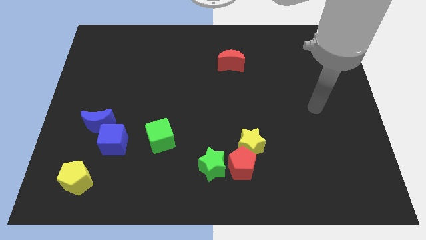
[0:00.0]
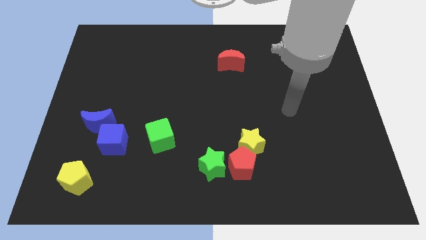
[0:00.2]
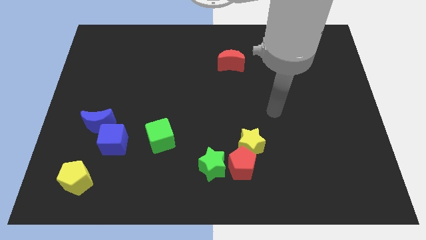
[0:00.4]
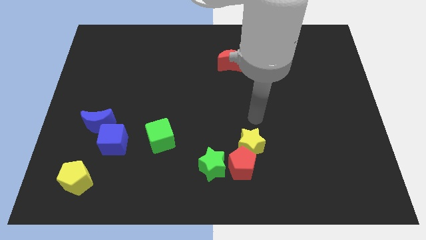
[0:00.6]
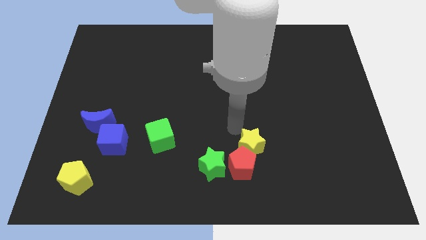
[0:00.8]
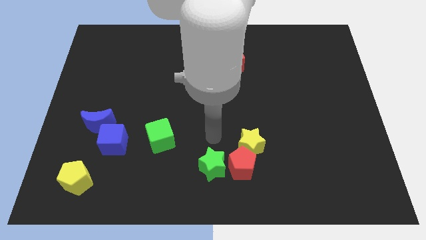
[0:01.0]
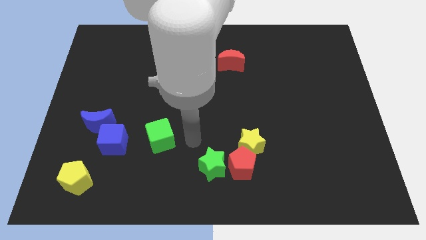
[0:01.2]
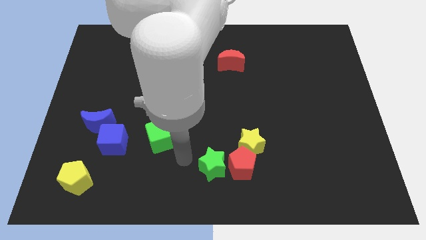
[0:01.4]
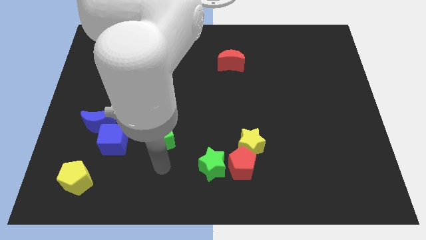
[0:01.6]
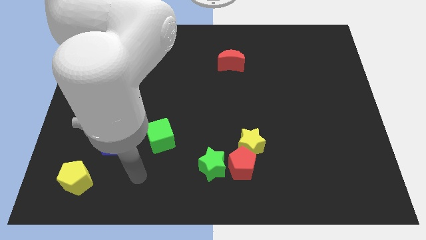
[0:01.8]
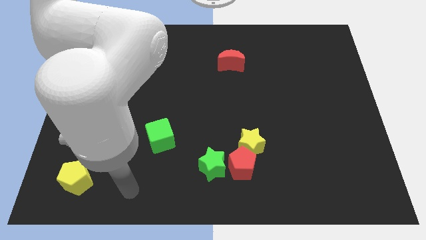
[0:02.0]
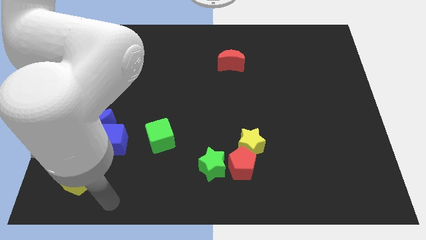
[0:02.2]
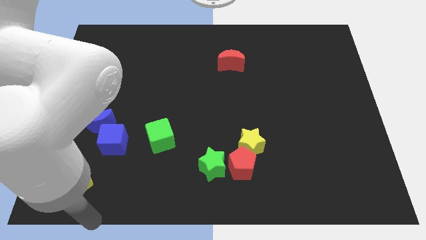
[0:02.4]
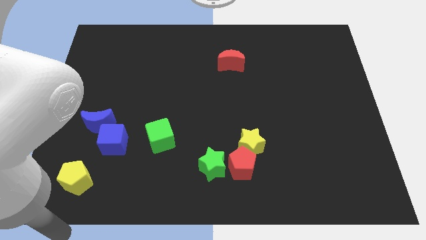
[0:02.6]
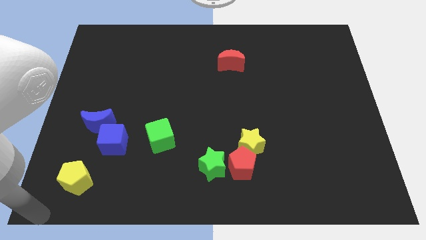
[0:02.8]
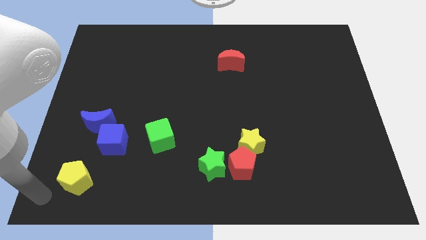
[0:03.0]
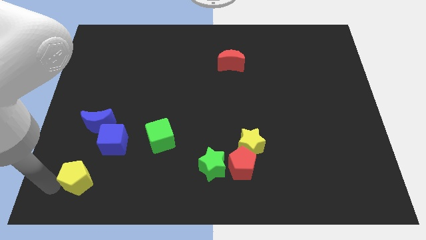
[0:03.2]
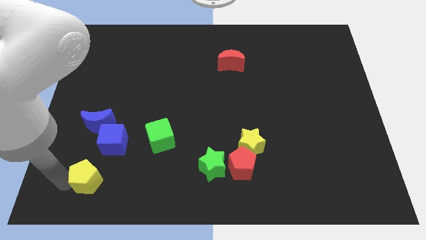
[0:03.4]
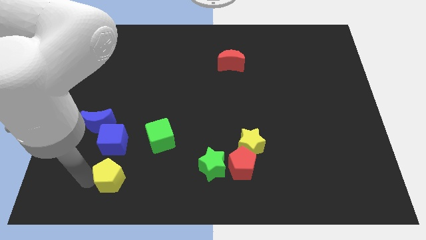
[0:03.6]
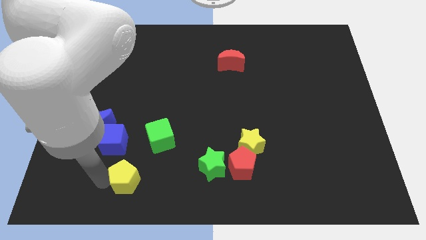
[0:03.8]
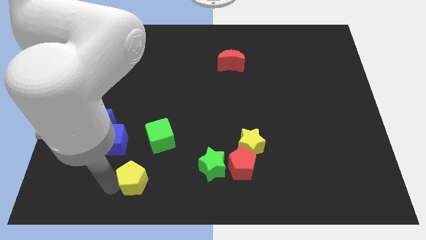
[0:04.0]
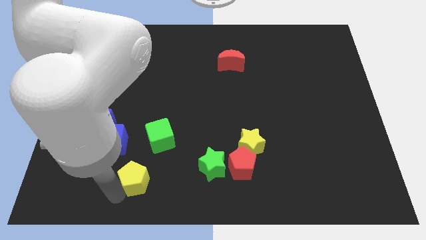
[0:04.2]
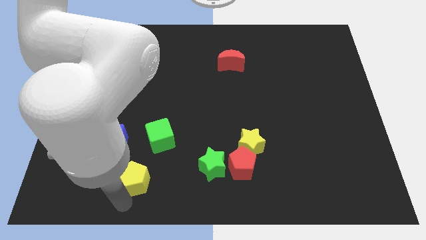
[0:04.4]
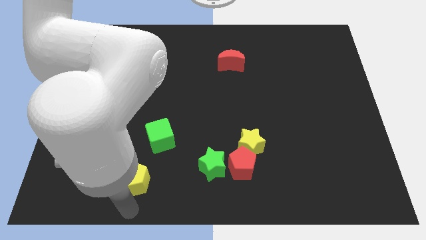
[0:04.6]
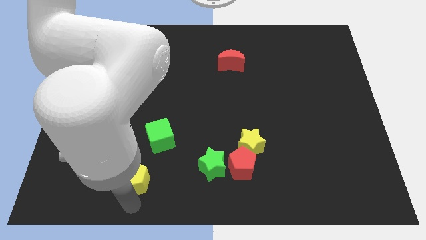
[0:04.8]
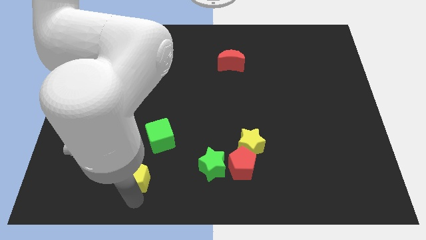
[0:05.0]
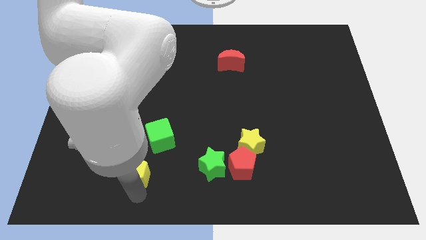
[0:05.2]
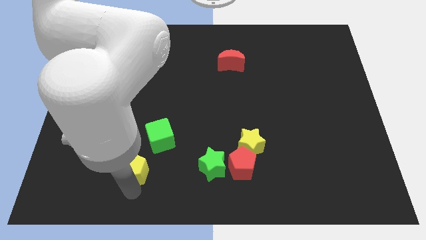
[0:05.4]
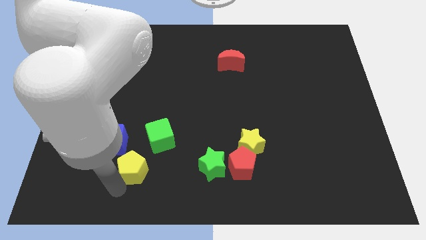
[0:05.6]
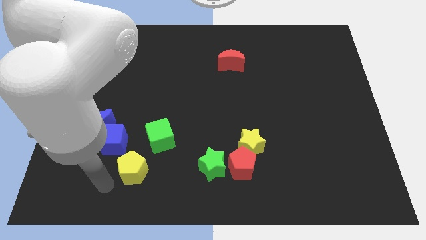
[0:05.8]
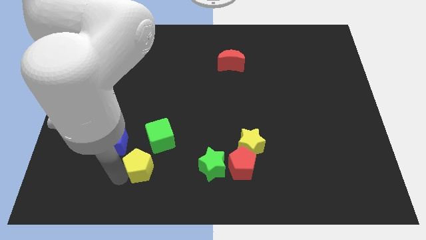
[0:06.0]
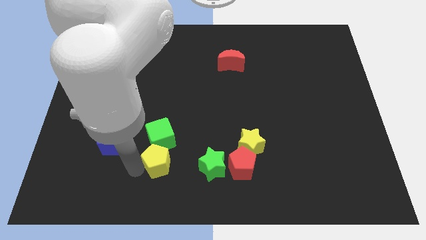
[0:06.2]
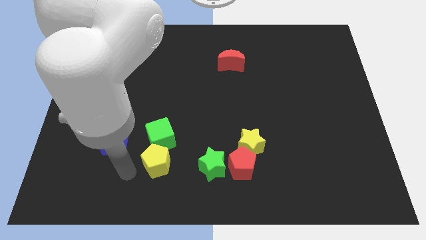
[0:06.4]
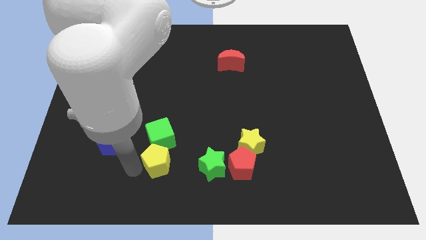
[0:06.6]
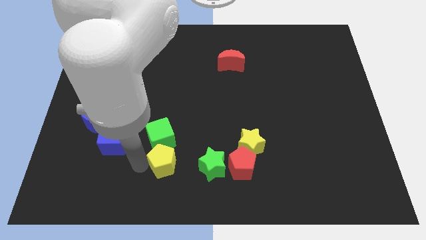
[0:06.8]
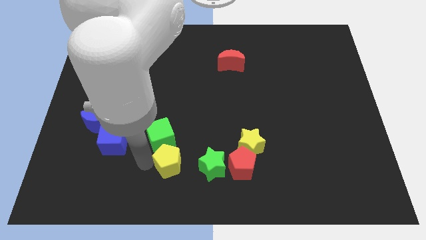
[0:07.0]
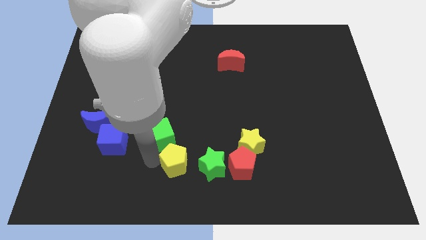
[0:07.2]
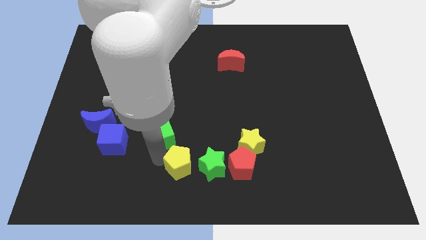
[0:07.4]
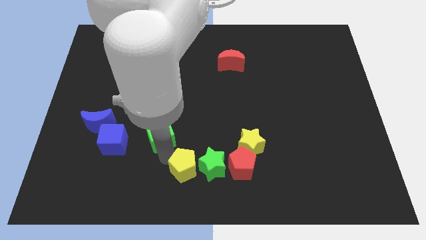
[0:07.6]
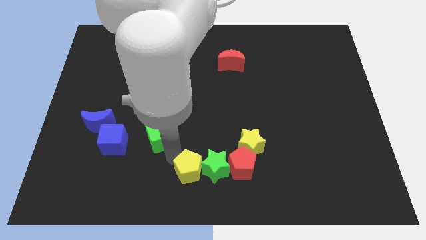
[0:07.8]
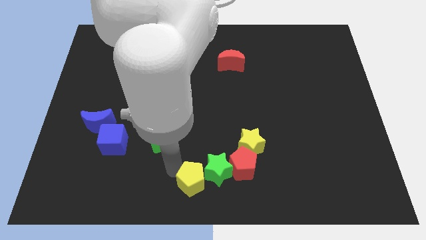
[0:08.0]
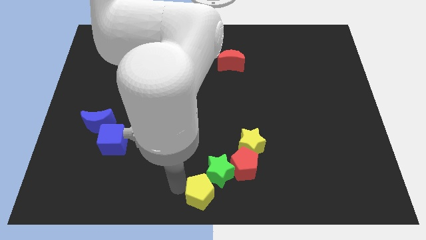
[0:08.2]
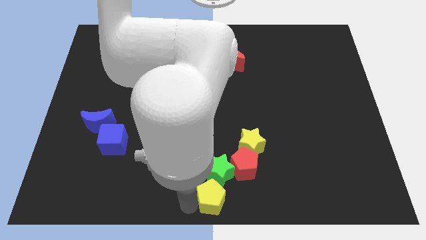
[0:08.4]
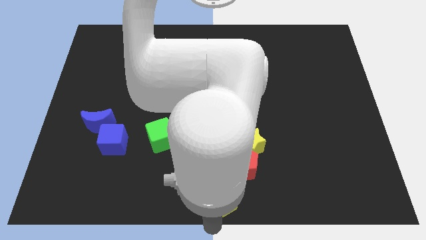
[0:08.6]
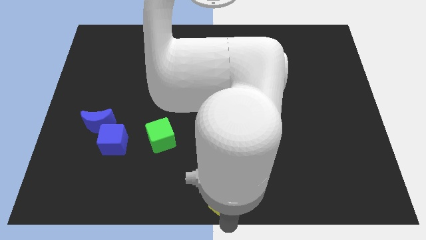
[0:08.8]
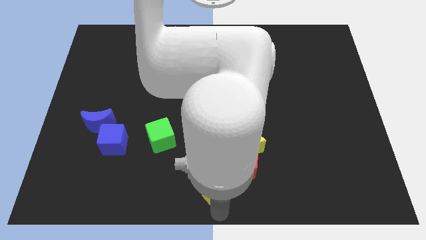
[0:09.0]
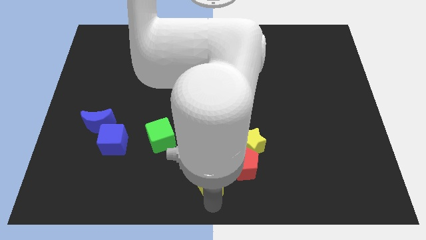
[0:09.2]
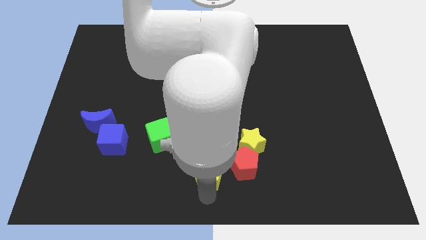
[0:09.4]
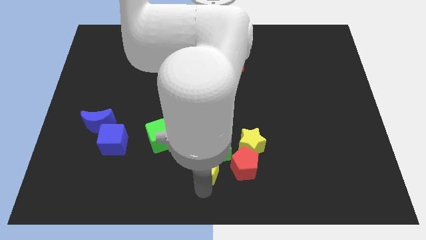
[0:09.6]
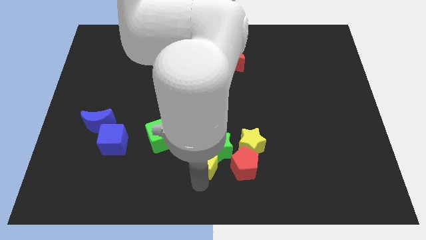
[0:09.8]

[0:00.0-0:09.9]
slide the yellow pentagon left of the yellow star

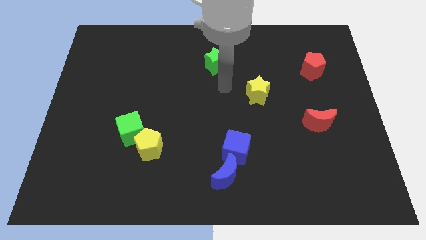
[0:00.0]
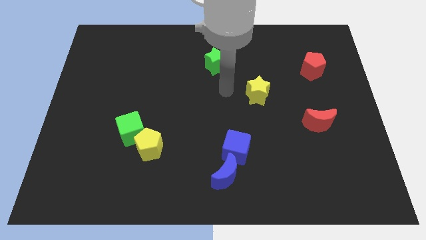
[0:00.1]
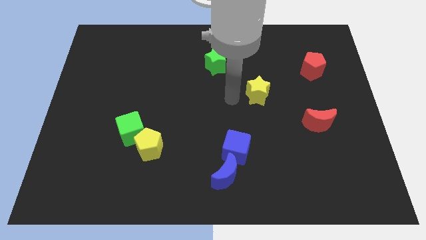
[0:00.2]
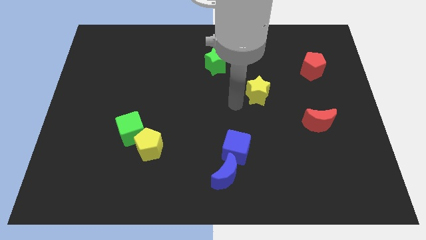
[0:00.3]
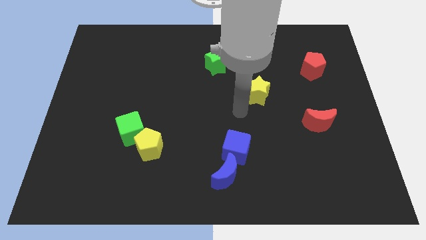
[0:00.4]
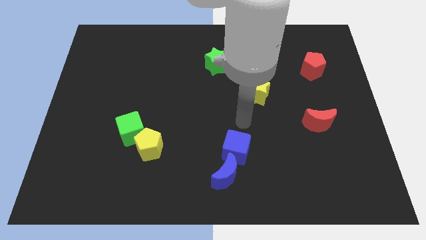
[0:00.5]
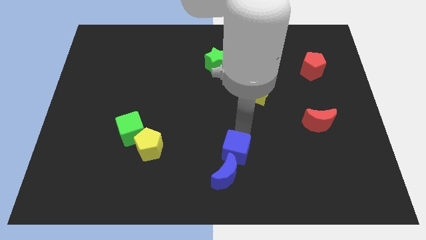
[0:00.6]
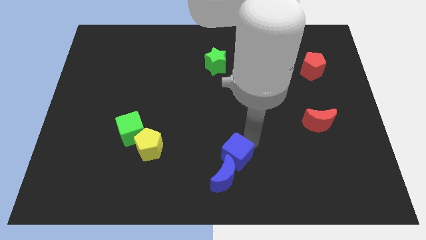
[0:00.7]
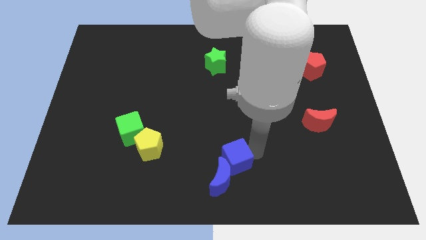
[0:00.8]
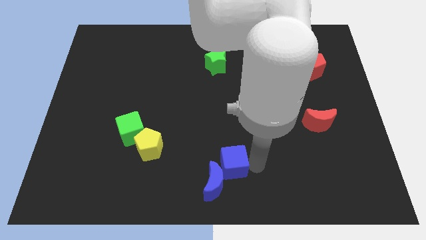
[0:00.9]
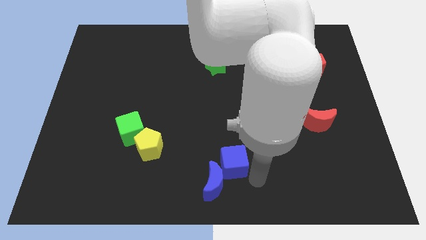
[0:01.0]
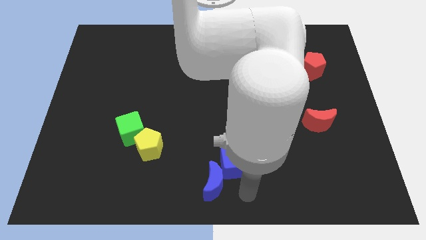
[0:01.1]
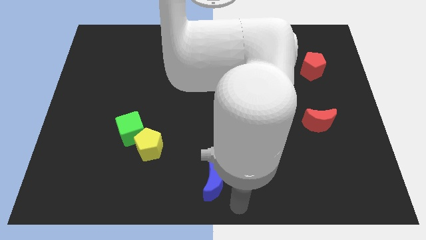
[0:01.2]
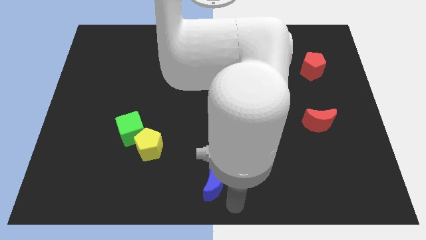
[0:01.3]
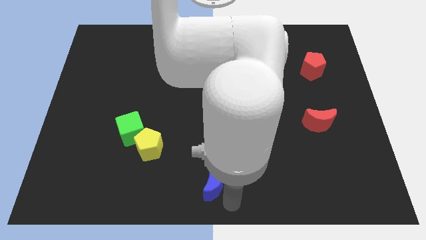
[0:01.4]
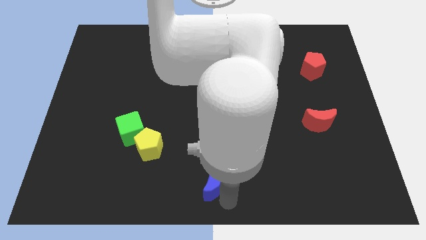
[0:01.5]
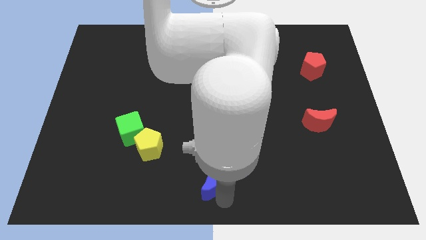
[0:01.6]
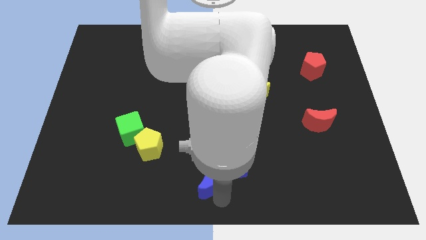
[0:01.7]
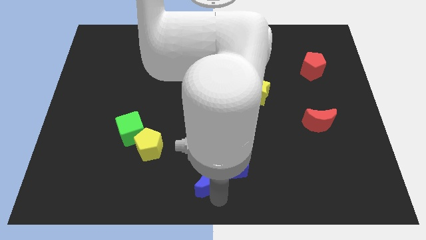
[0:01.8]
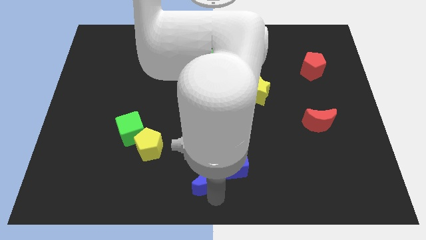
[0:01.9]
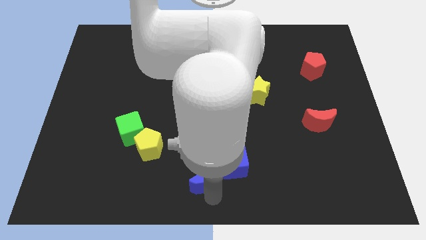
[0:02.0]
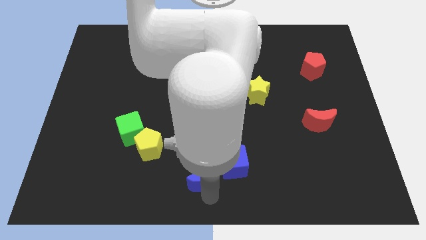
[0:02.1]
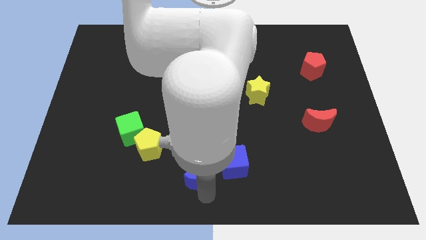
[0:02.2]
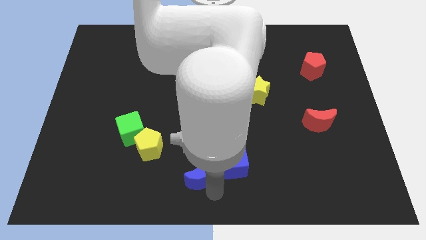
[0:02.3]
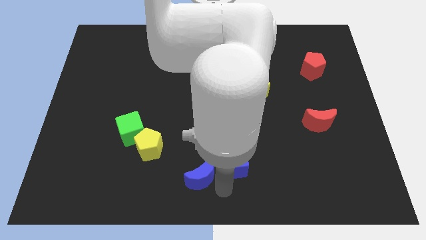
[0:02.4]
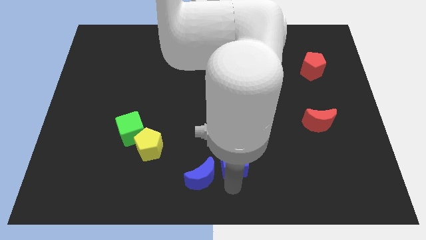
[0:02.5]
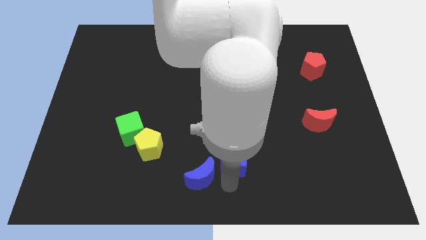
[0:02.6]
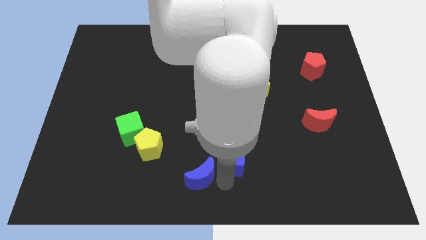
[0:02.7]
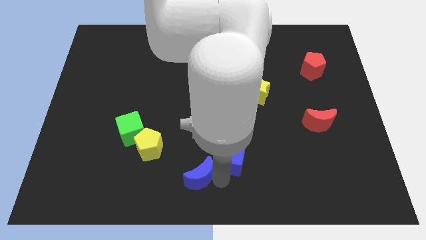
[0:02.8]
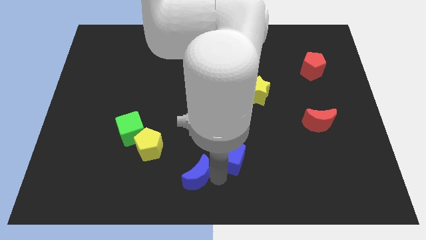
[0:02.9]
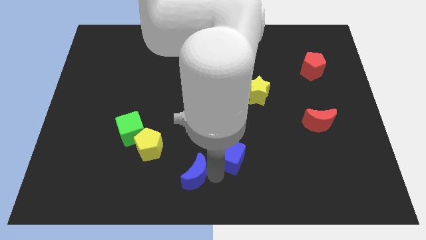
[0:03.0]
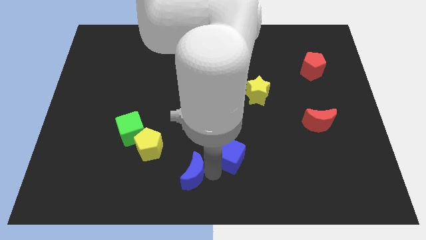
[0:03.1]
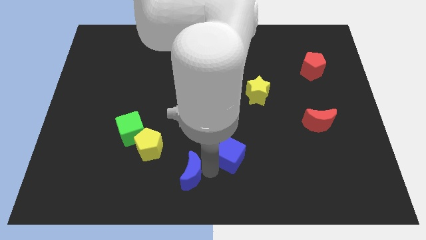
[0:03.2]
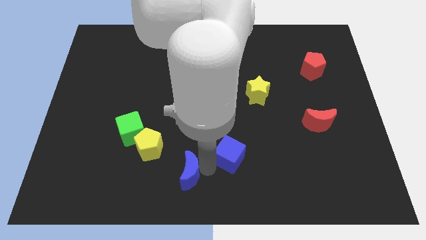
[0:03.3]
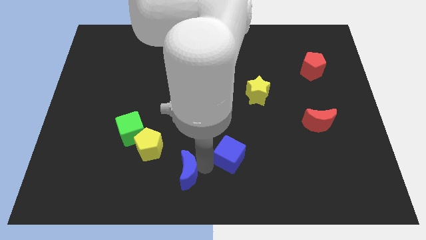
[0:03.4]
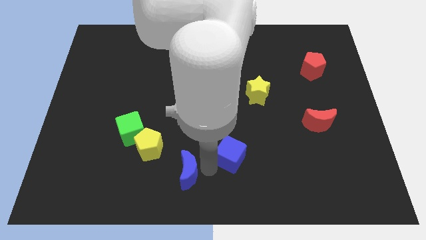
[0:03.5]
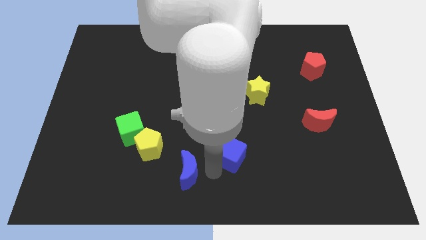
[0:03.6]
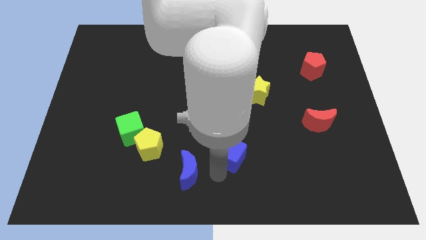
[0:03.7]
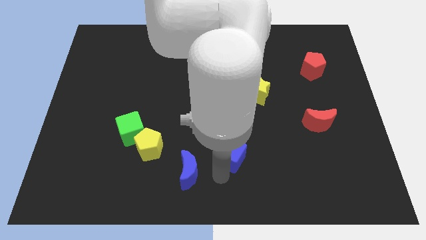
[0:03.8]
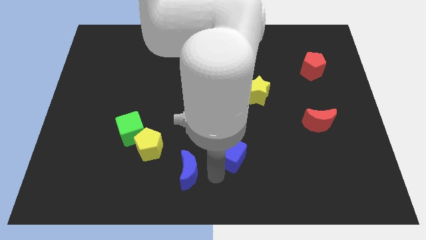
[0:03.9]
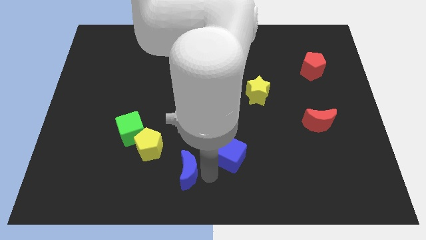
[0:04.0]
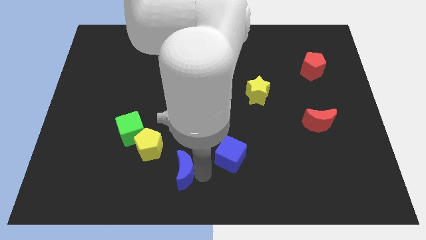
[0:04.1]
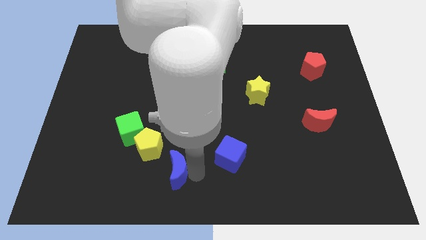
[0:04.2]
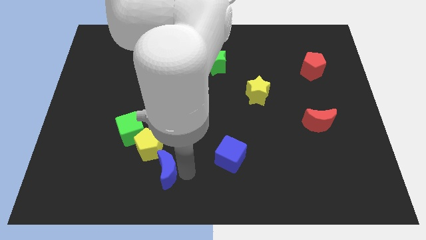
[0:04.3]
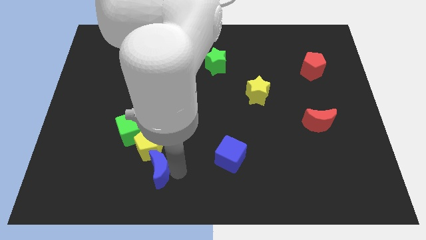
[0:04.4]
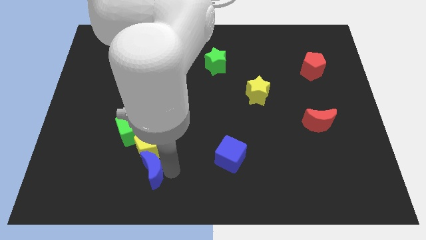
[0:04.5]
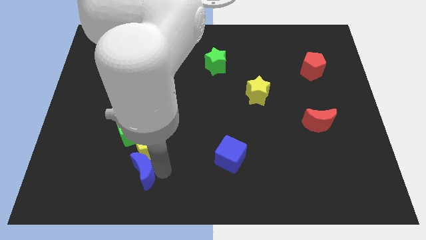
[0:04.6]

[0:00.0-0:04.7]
slide the blue moon to the bottom side of the green cube
